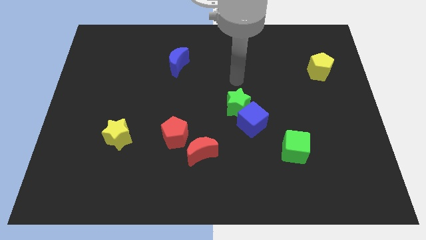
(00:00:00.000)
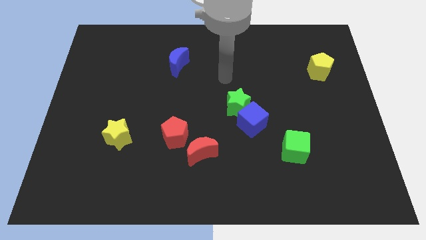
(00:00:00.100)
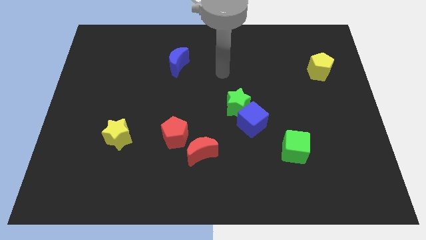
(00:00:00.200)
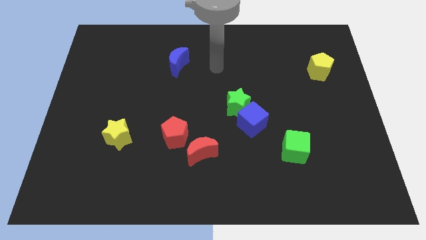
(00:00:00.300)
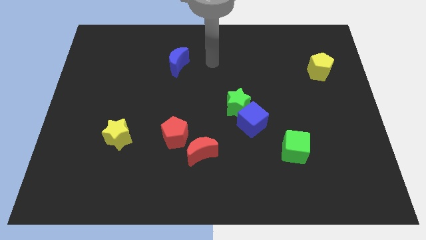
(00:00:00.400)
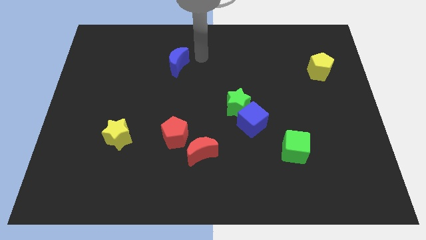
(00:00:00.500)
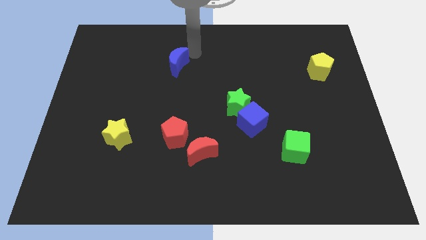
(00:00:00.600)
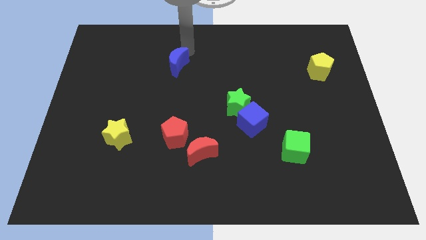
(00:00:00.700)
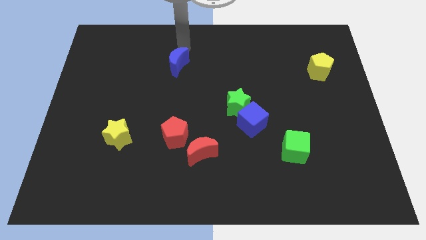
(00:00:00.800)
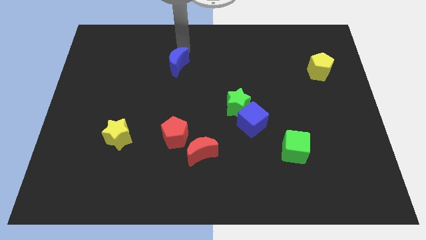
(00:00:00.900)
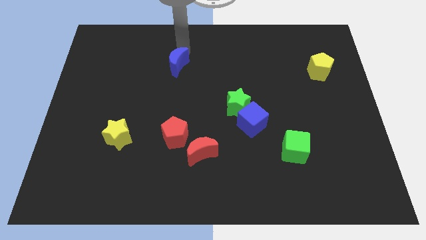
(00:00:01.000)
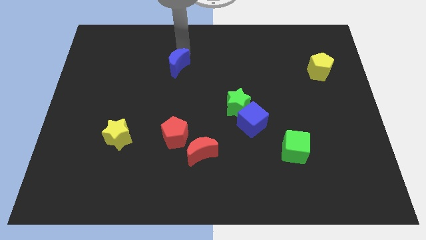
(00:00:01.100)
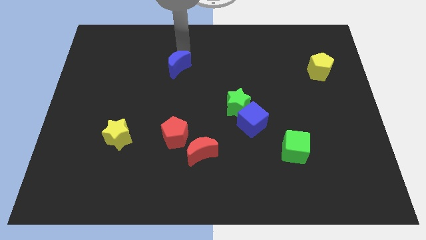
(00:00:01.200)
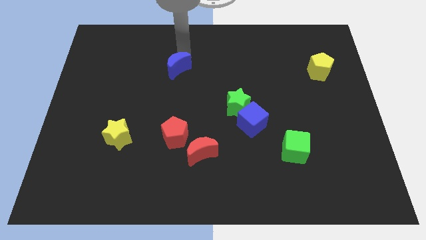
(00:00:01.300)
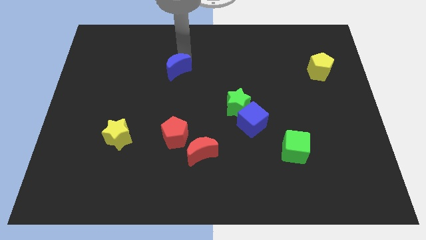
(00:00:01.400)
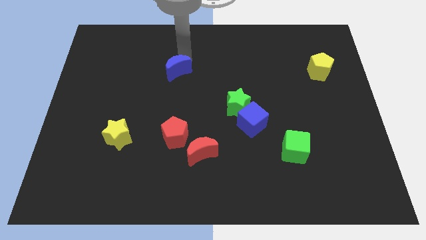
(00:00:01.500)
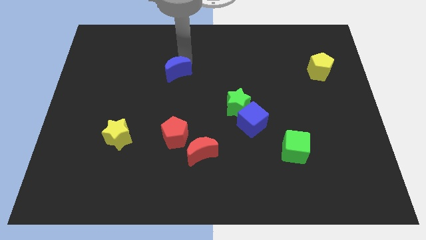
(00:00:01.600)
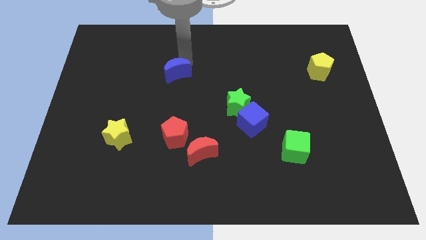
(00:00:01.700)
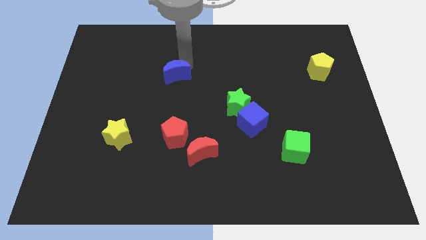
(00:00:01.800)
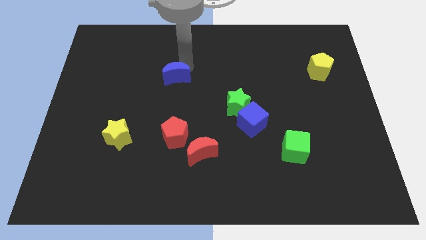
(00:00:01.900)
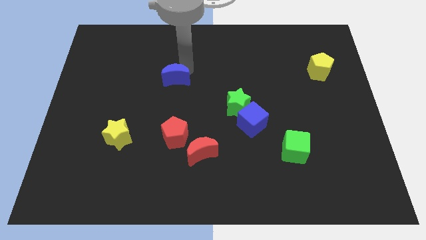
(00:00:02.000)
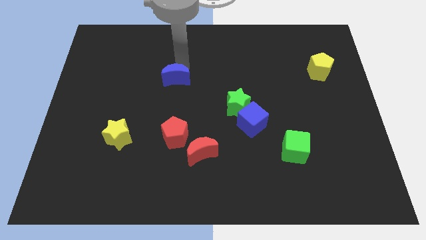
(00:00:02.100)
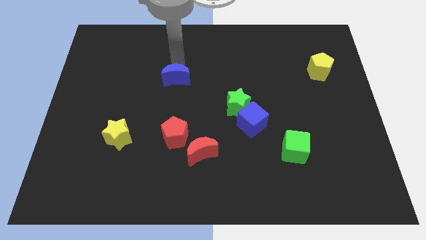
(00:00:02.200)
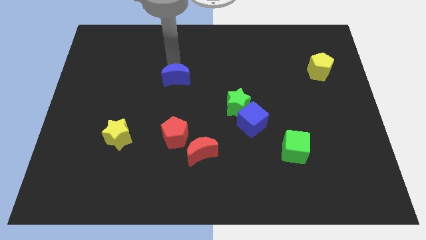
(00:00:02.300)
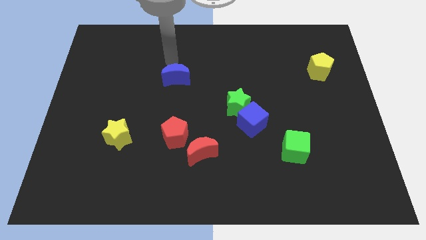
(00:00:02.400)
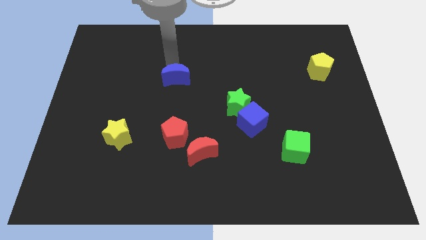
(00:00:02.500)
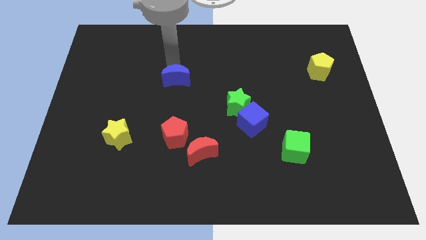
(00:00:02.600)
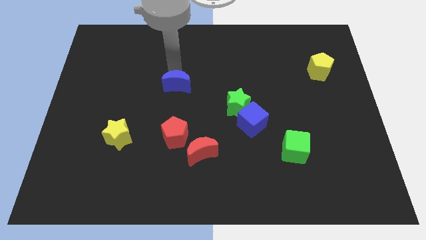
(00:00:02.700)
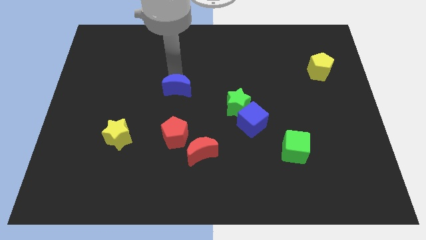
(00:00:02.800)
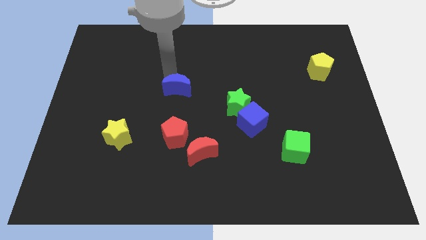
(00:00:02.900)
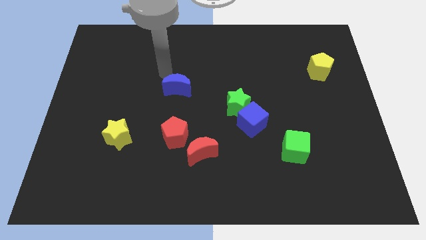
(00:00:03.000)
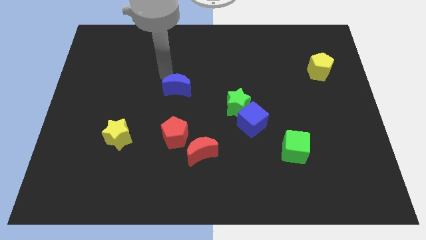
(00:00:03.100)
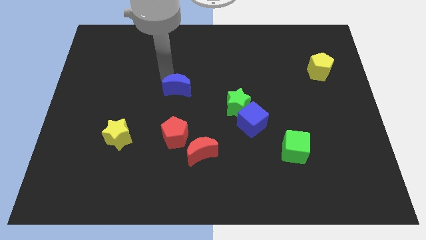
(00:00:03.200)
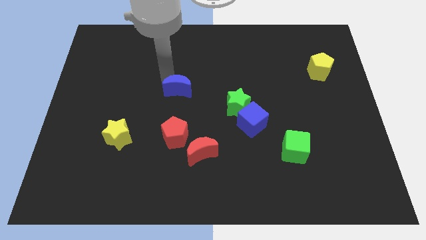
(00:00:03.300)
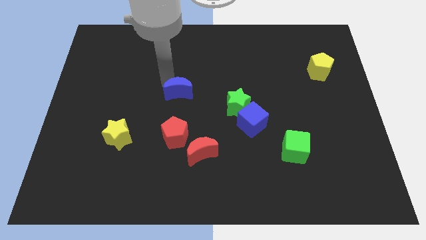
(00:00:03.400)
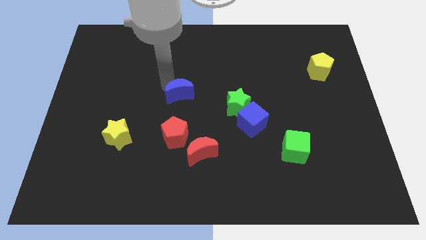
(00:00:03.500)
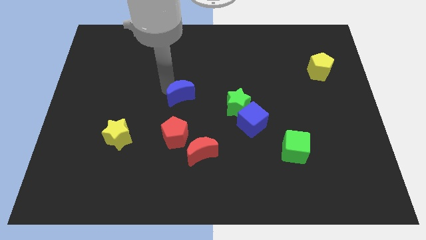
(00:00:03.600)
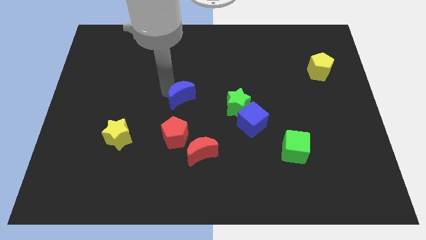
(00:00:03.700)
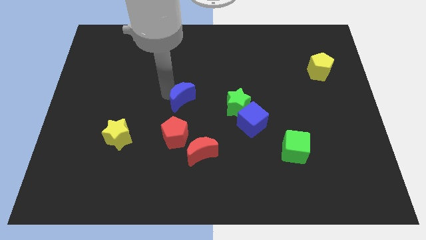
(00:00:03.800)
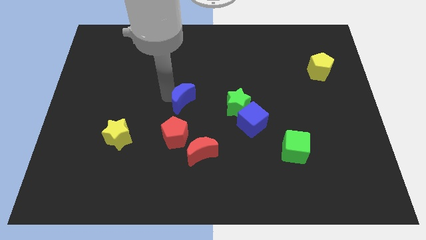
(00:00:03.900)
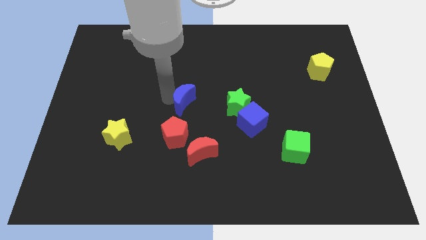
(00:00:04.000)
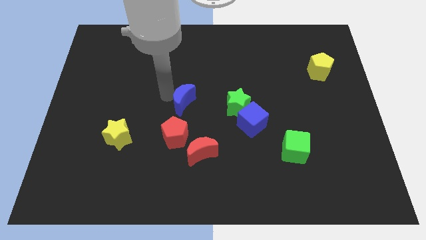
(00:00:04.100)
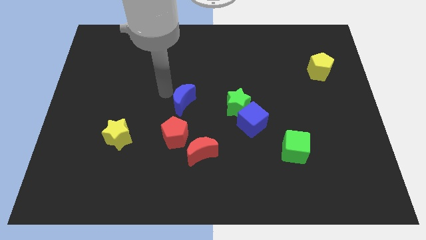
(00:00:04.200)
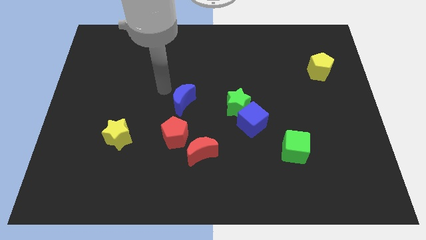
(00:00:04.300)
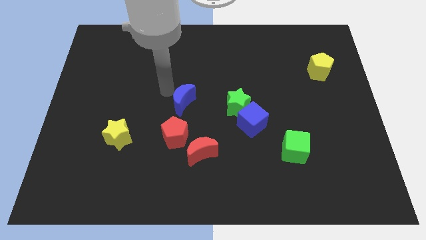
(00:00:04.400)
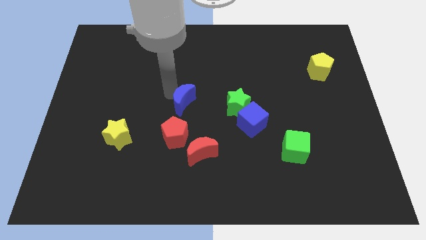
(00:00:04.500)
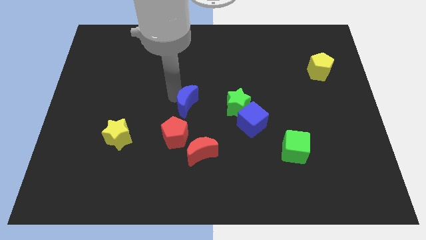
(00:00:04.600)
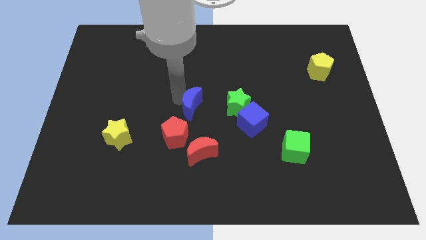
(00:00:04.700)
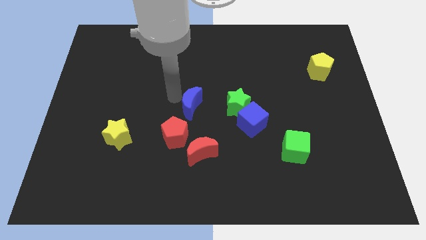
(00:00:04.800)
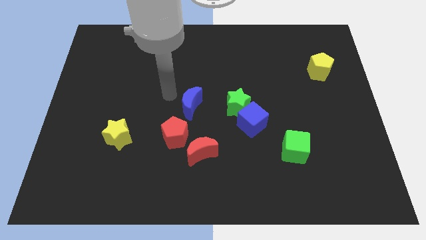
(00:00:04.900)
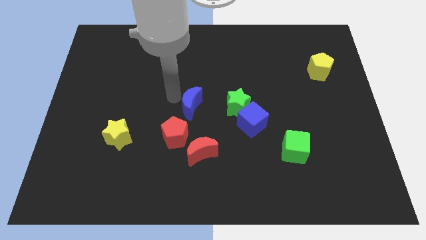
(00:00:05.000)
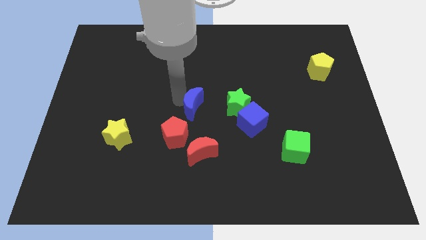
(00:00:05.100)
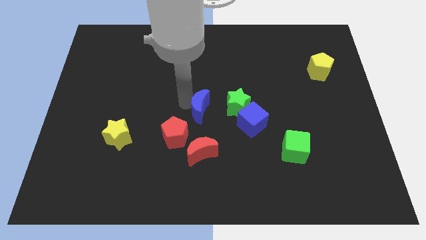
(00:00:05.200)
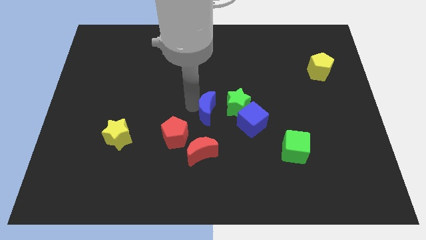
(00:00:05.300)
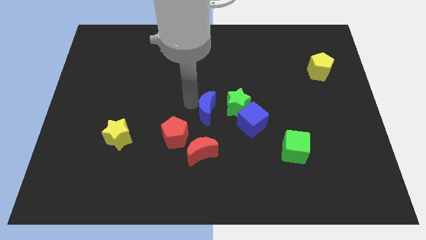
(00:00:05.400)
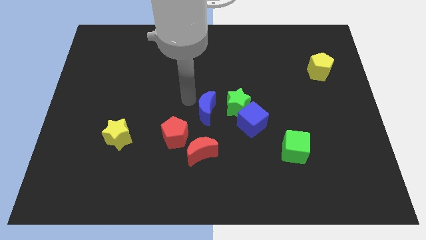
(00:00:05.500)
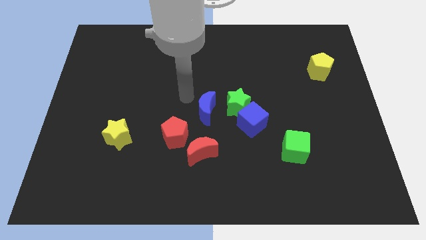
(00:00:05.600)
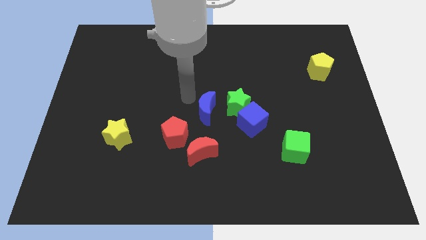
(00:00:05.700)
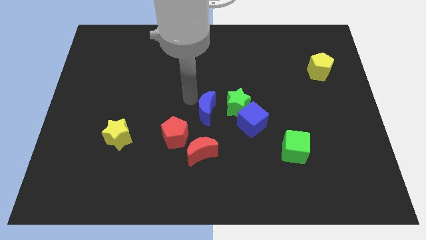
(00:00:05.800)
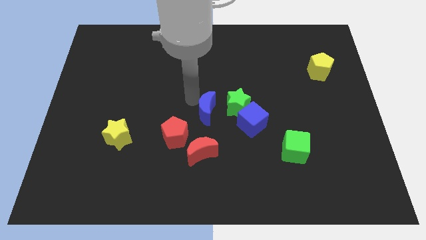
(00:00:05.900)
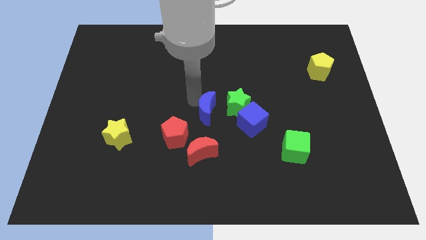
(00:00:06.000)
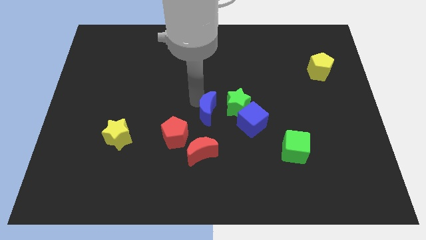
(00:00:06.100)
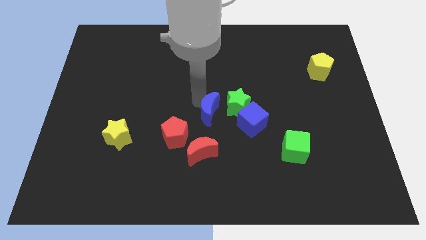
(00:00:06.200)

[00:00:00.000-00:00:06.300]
slide the blue moon to the top left of the blue cube

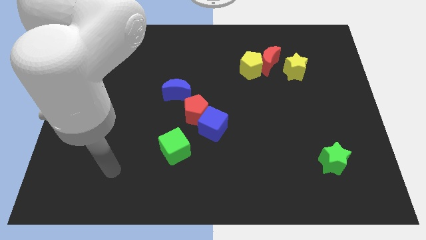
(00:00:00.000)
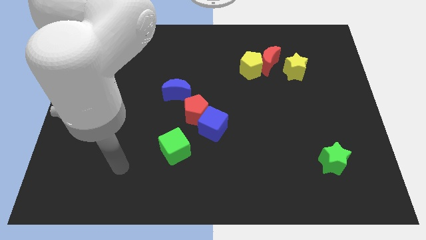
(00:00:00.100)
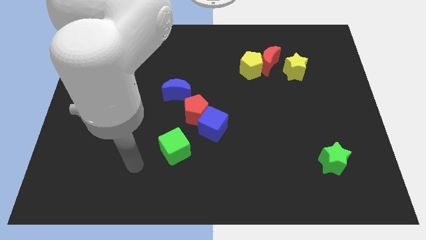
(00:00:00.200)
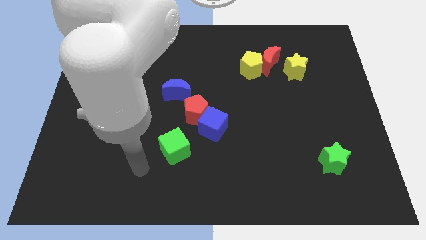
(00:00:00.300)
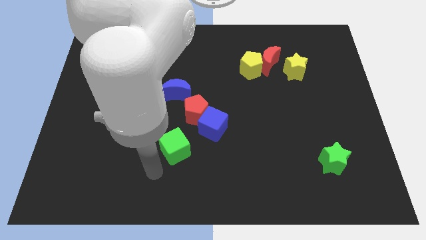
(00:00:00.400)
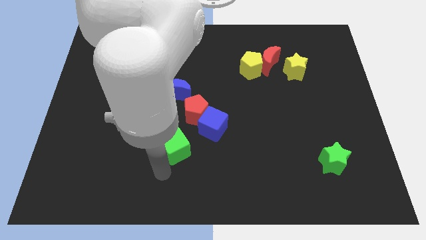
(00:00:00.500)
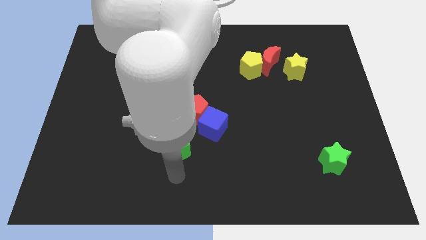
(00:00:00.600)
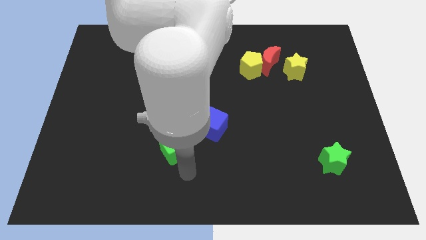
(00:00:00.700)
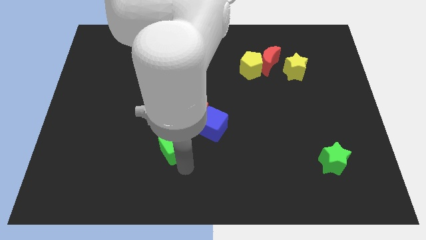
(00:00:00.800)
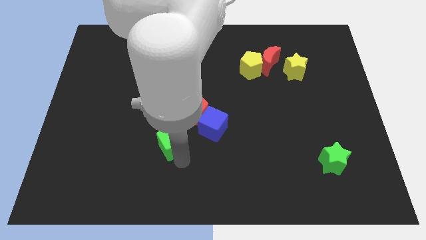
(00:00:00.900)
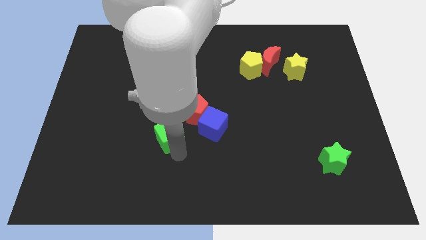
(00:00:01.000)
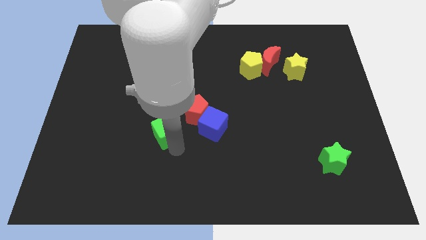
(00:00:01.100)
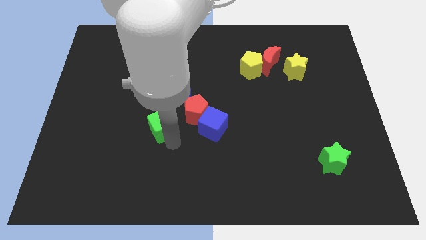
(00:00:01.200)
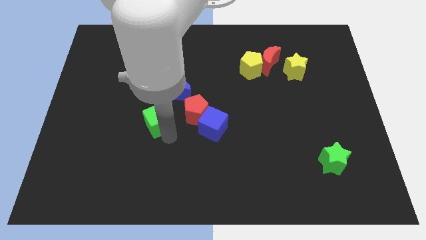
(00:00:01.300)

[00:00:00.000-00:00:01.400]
push the green cube to the bottom left side of the blue moon

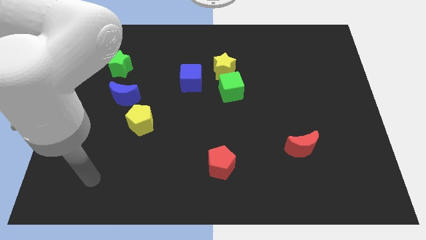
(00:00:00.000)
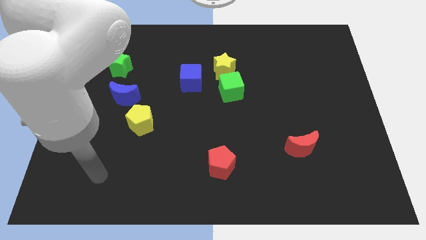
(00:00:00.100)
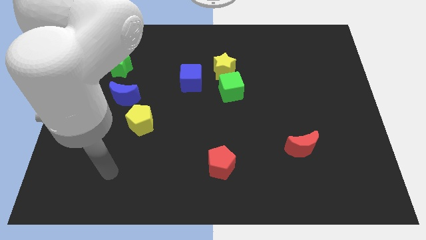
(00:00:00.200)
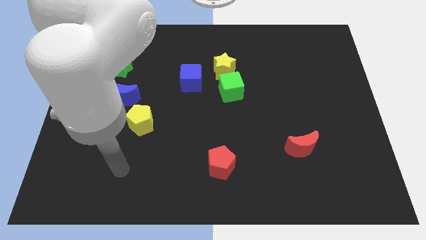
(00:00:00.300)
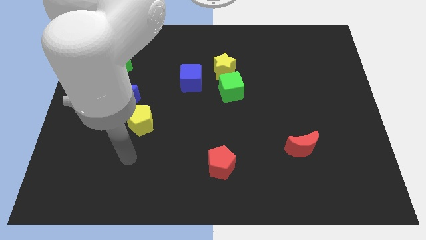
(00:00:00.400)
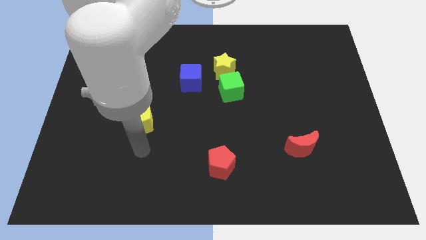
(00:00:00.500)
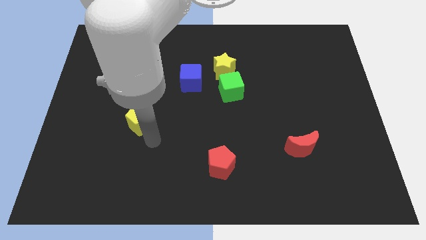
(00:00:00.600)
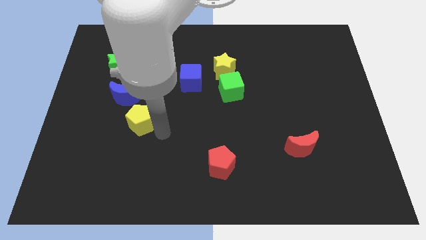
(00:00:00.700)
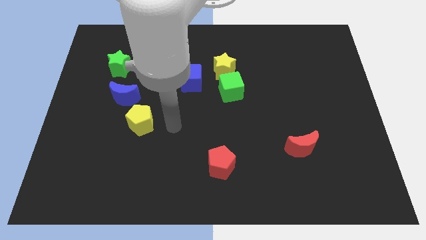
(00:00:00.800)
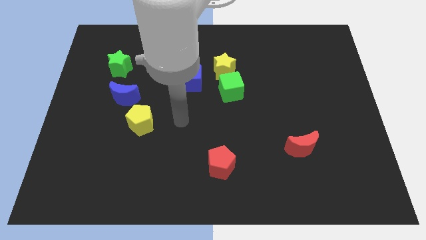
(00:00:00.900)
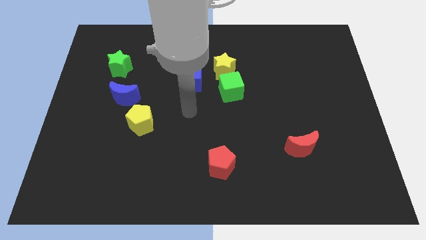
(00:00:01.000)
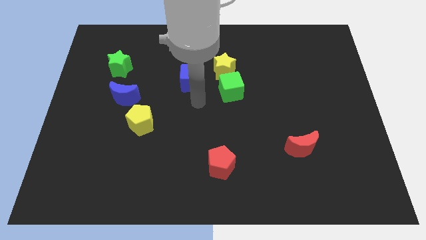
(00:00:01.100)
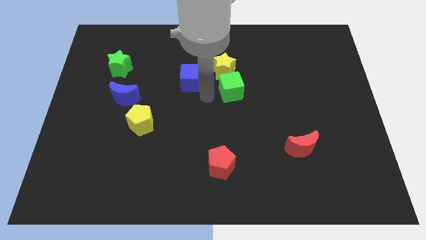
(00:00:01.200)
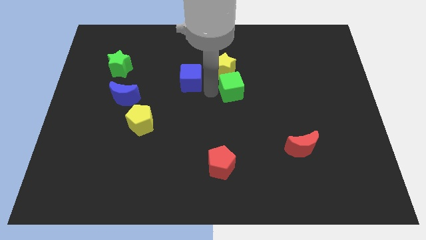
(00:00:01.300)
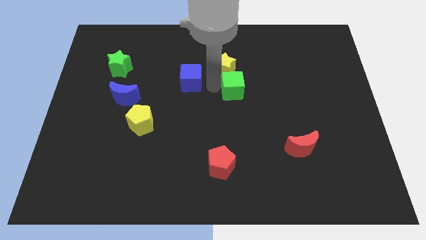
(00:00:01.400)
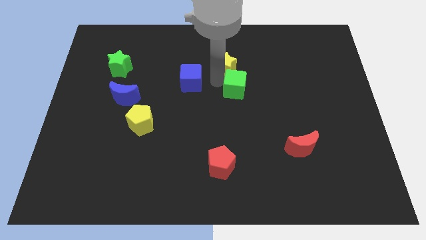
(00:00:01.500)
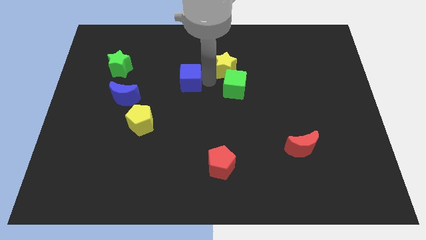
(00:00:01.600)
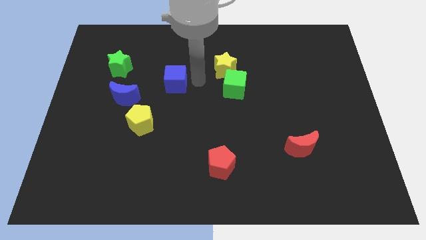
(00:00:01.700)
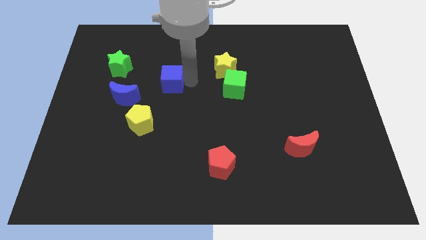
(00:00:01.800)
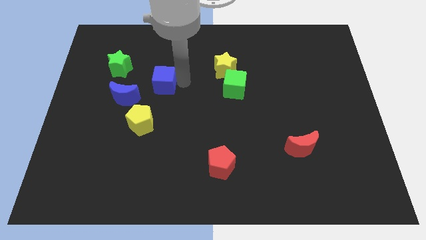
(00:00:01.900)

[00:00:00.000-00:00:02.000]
put the blue cube diagonally up and to the right of the blue moon
